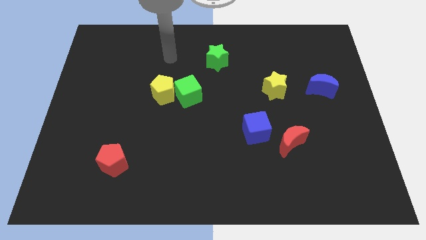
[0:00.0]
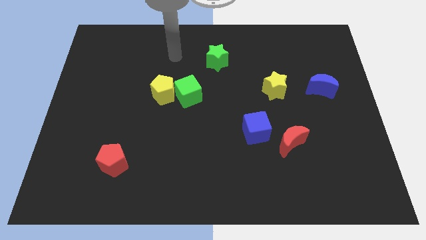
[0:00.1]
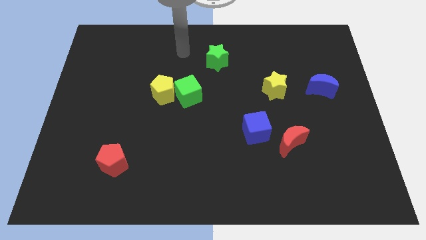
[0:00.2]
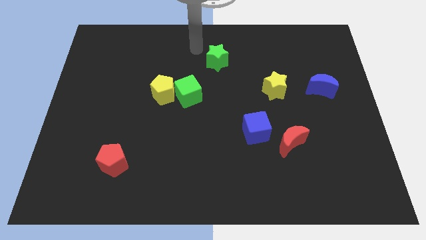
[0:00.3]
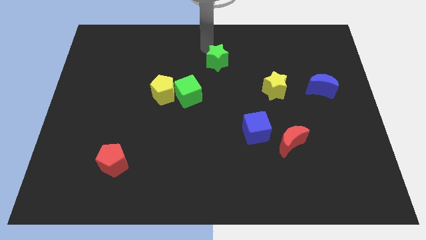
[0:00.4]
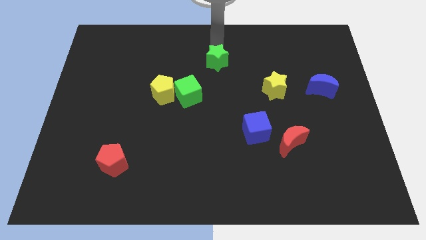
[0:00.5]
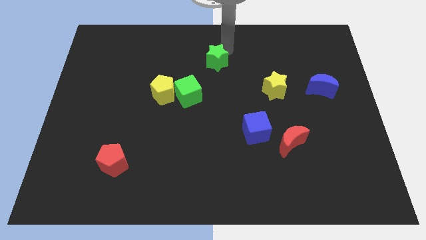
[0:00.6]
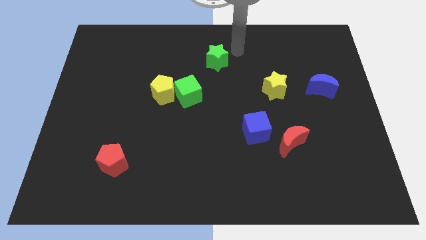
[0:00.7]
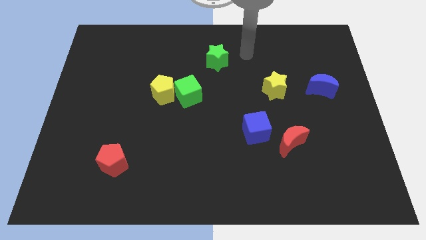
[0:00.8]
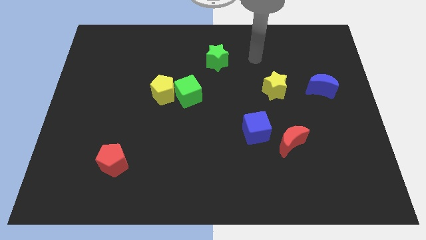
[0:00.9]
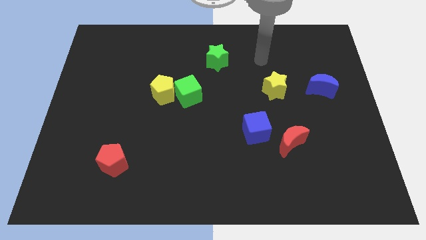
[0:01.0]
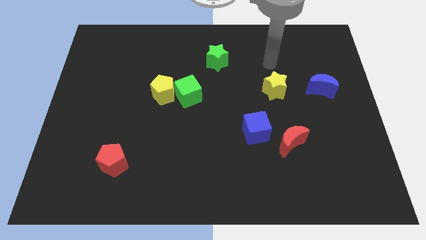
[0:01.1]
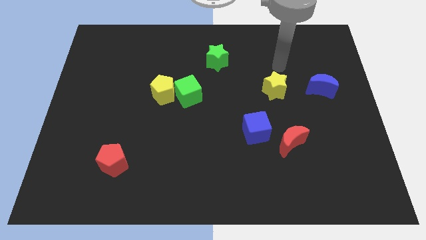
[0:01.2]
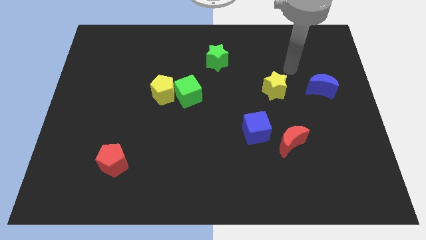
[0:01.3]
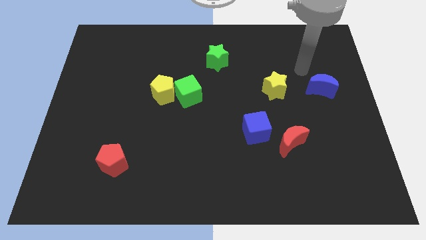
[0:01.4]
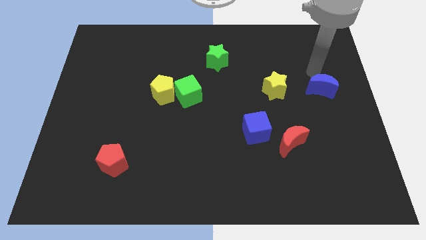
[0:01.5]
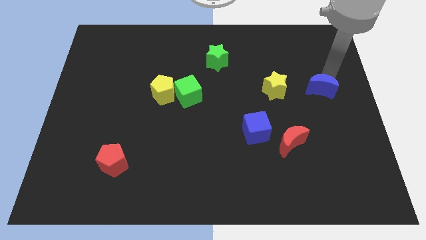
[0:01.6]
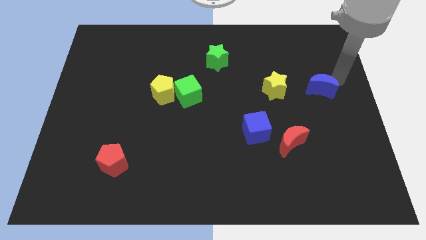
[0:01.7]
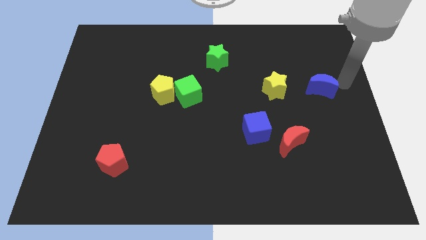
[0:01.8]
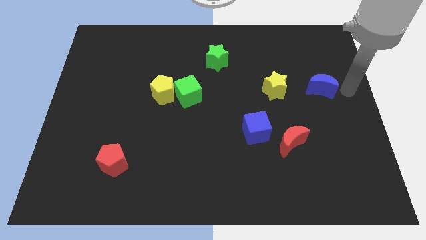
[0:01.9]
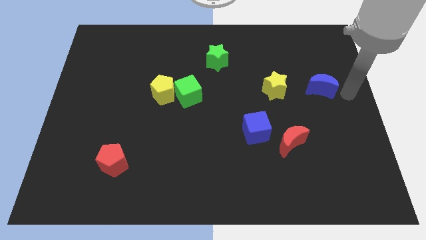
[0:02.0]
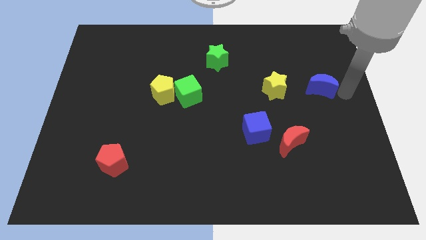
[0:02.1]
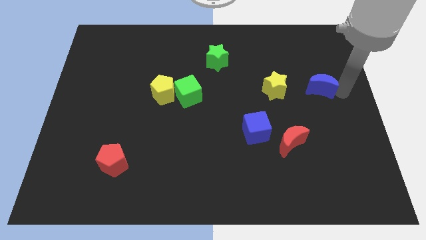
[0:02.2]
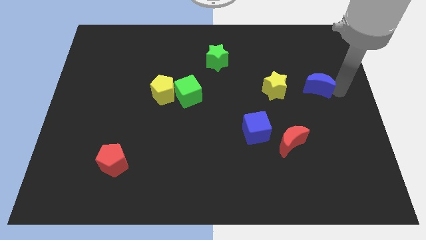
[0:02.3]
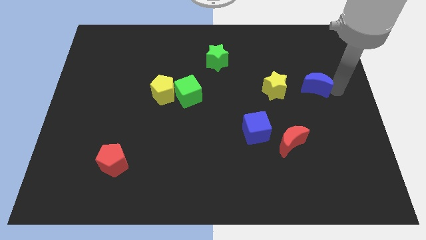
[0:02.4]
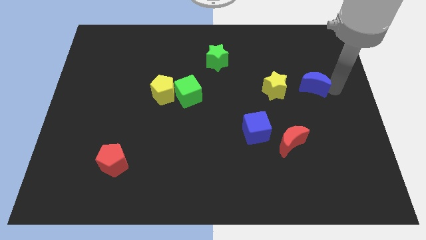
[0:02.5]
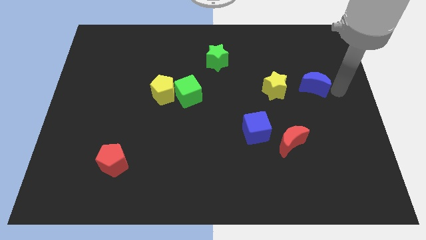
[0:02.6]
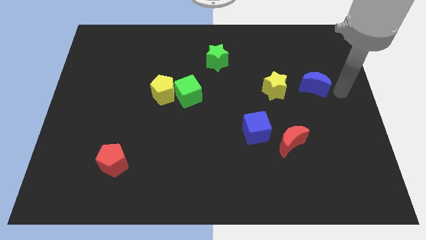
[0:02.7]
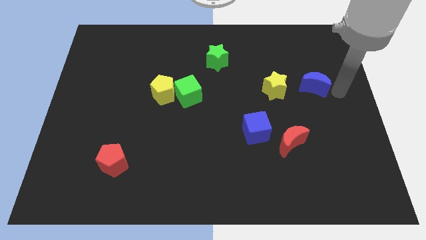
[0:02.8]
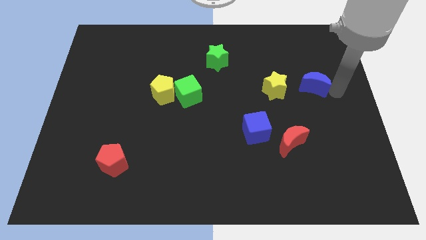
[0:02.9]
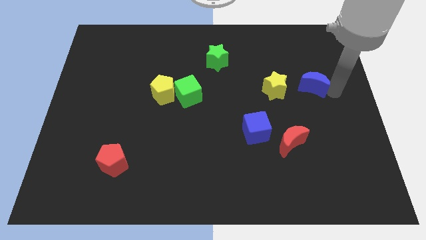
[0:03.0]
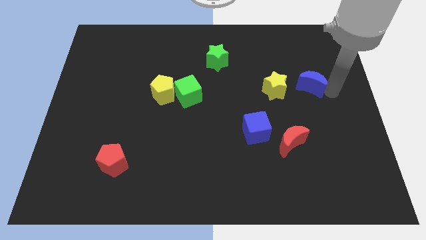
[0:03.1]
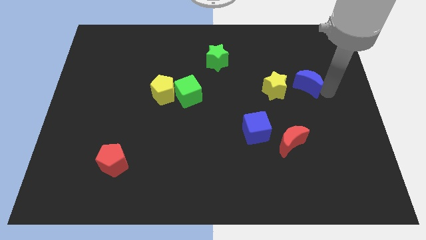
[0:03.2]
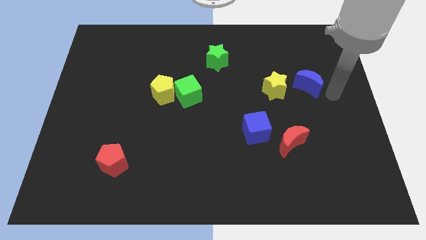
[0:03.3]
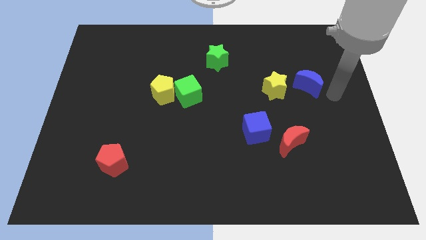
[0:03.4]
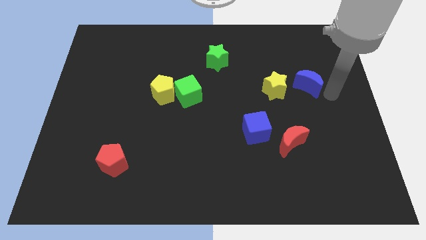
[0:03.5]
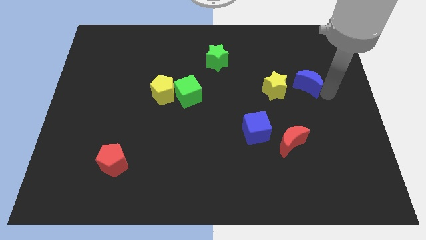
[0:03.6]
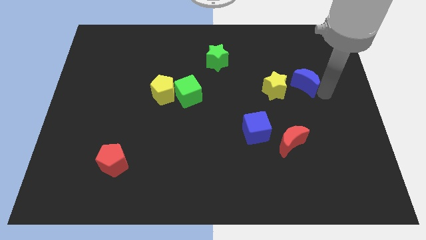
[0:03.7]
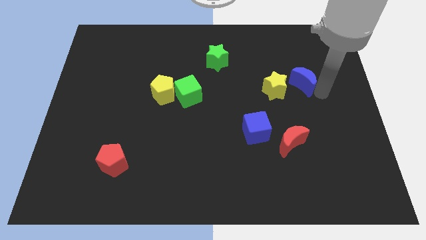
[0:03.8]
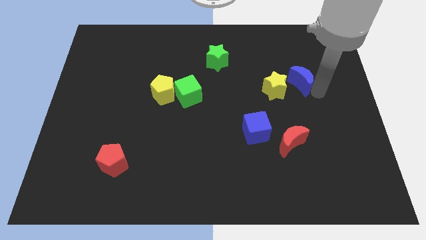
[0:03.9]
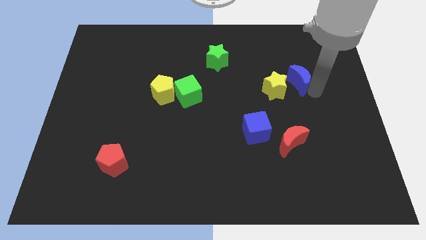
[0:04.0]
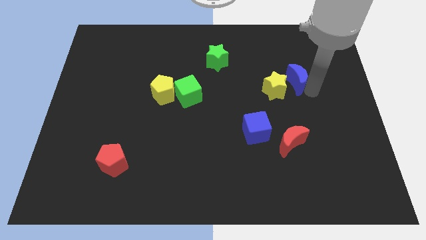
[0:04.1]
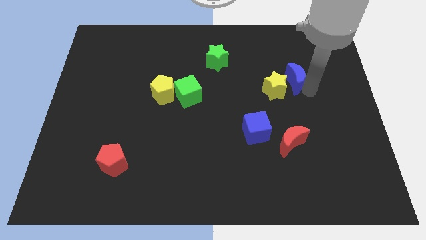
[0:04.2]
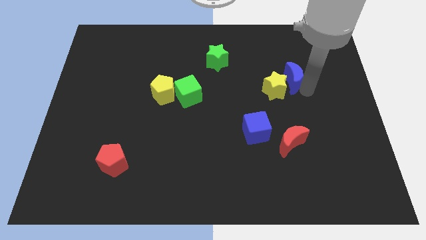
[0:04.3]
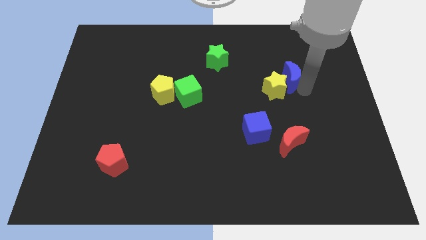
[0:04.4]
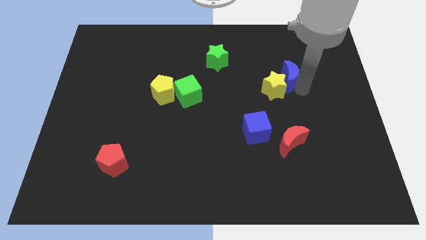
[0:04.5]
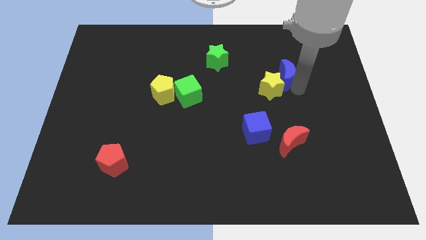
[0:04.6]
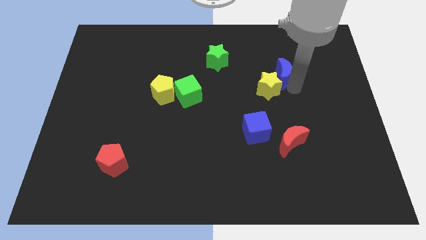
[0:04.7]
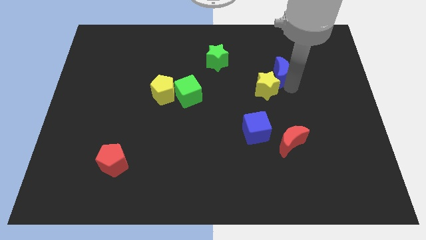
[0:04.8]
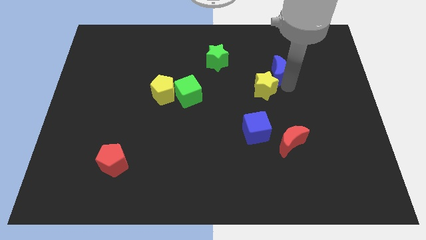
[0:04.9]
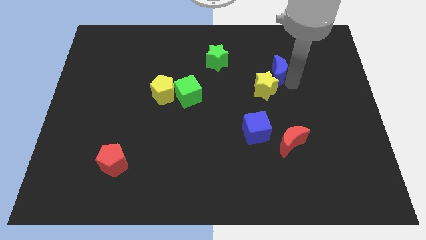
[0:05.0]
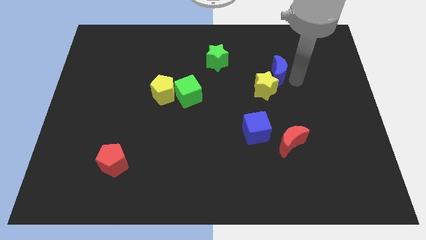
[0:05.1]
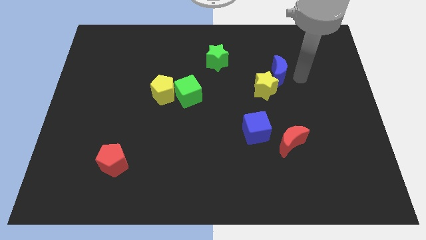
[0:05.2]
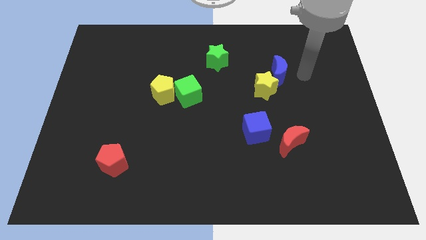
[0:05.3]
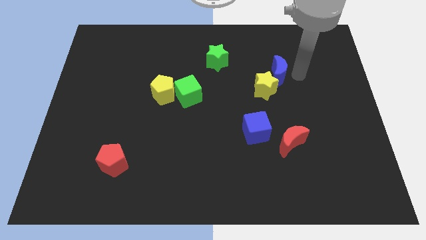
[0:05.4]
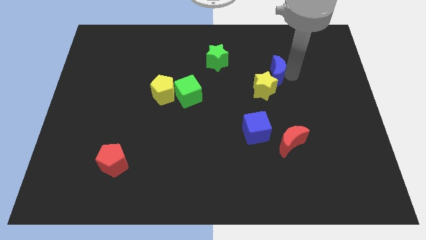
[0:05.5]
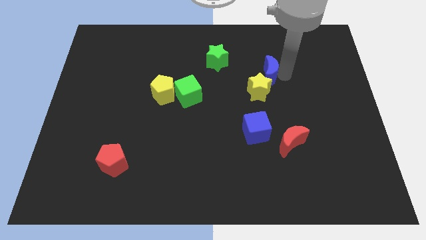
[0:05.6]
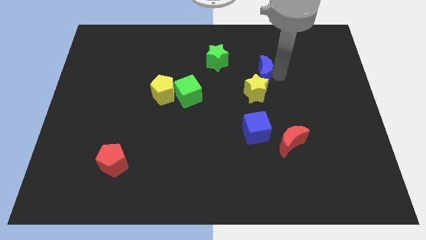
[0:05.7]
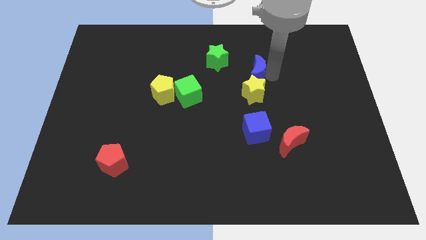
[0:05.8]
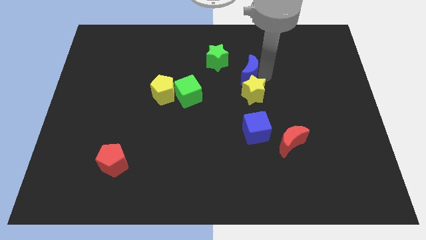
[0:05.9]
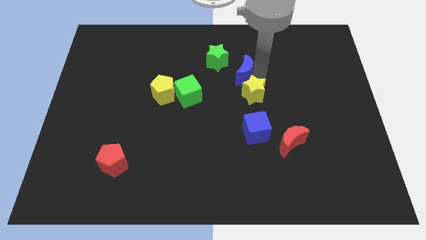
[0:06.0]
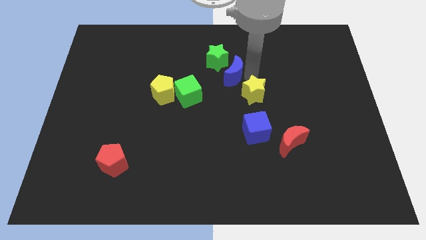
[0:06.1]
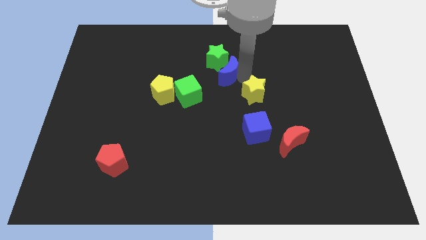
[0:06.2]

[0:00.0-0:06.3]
move the blue moon towards the green star

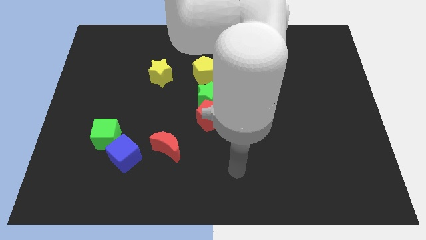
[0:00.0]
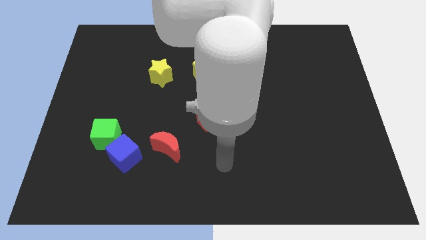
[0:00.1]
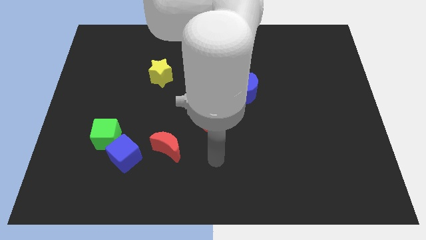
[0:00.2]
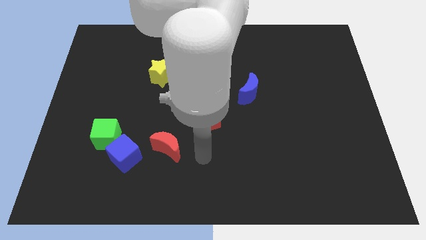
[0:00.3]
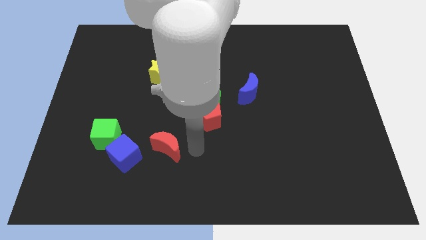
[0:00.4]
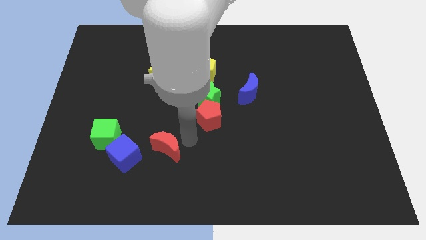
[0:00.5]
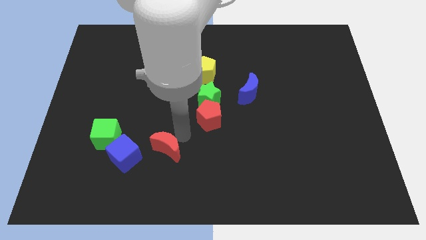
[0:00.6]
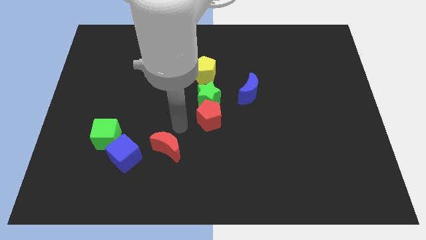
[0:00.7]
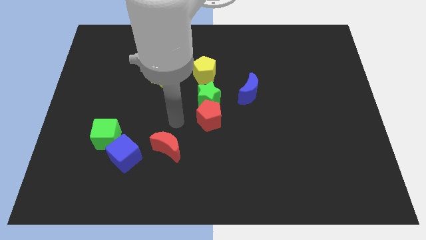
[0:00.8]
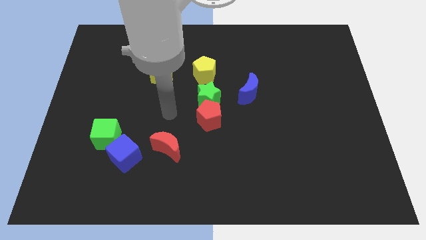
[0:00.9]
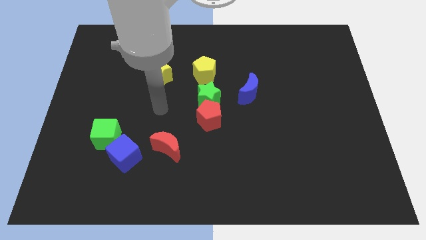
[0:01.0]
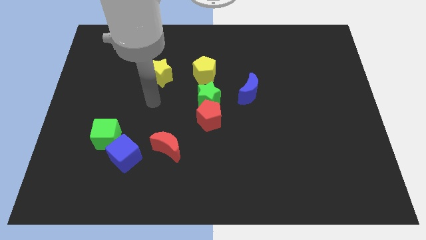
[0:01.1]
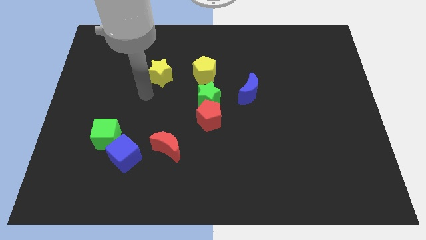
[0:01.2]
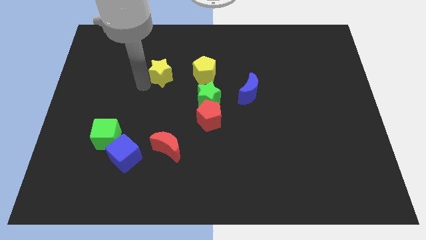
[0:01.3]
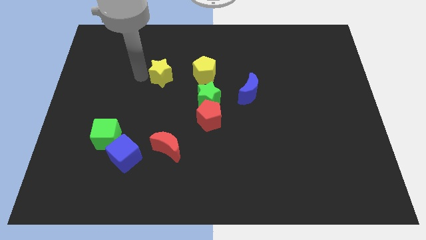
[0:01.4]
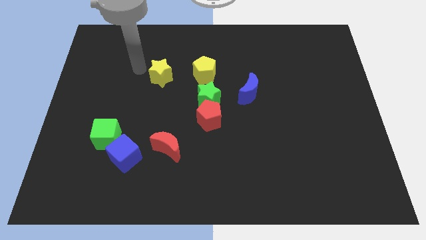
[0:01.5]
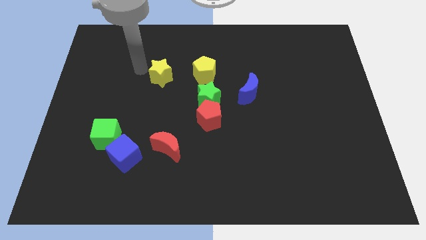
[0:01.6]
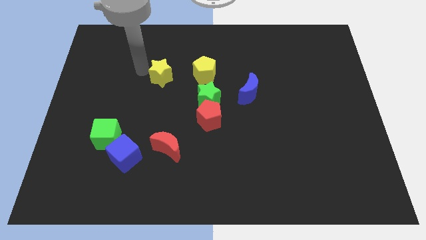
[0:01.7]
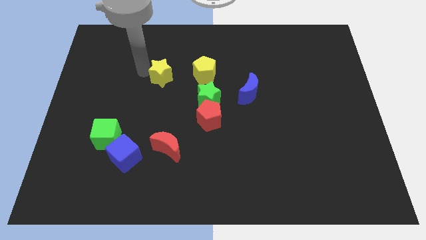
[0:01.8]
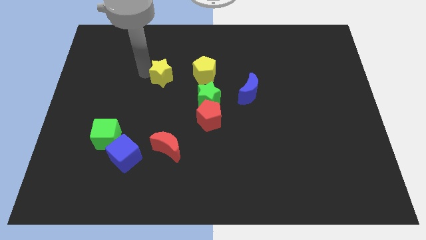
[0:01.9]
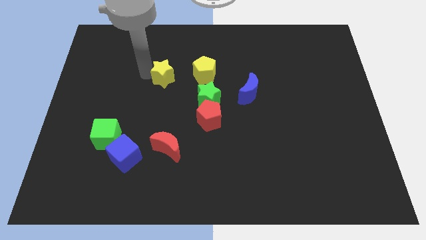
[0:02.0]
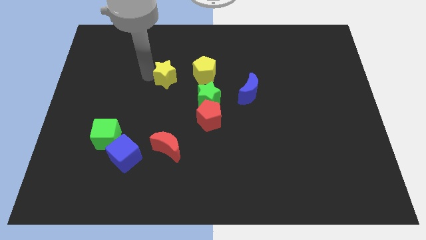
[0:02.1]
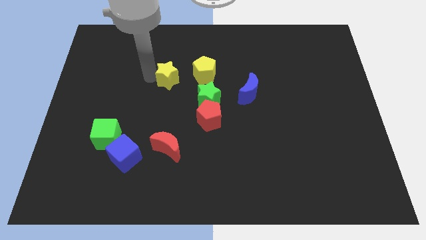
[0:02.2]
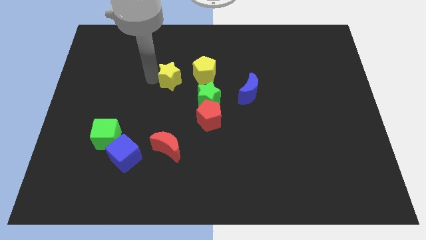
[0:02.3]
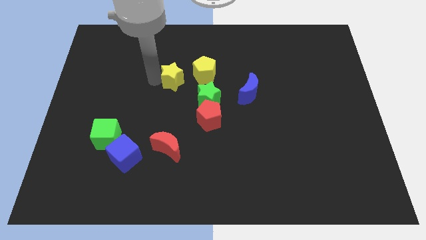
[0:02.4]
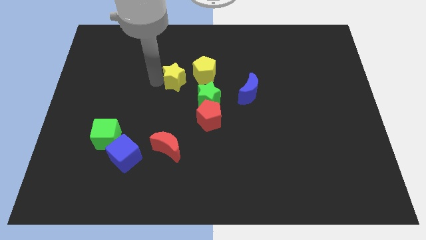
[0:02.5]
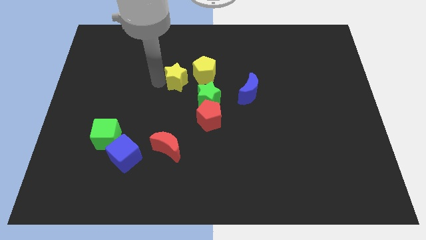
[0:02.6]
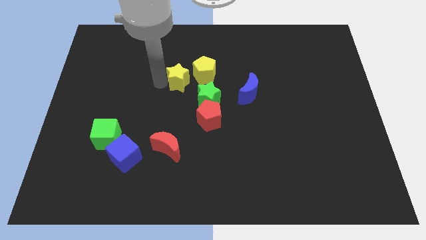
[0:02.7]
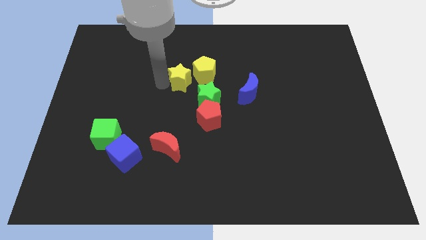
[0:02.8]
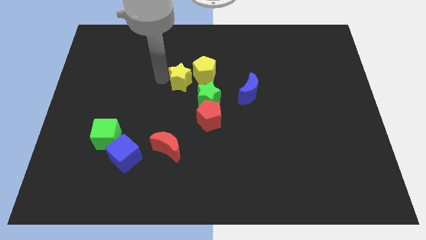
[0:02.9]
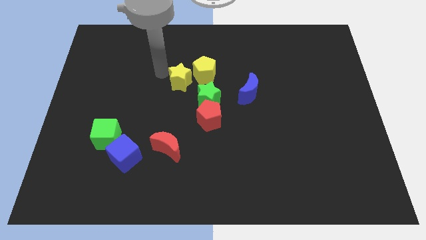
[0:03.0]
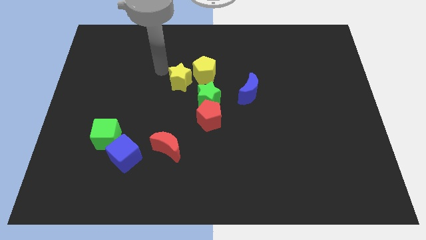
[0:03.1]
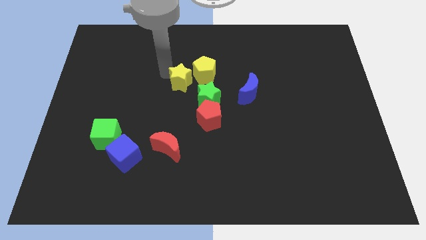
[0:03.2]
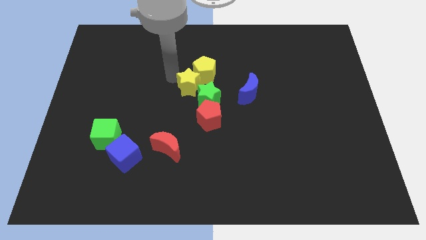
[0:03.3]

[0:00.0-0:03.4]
slide the yellow star next to the green star
